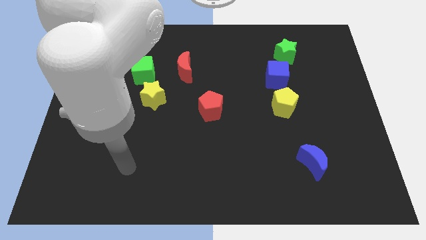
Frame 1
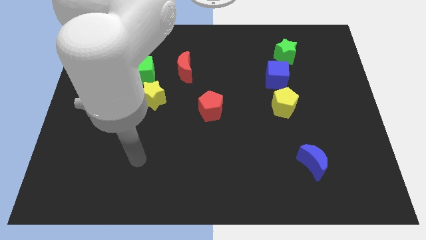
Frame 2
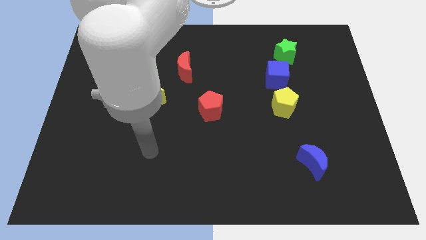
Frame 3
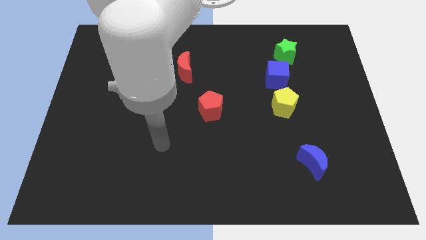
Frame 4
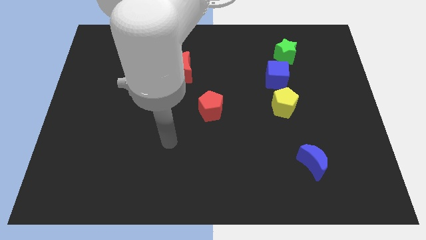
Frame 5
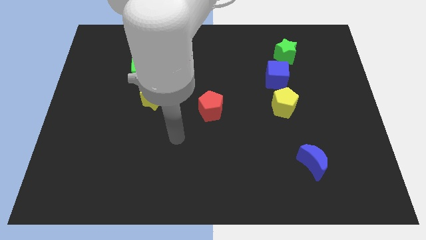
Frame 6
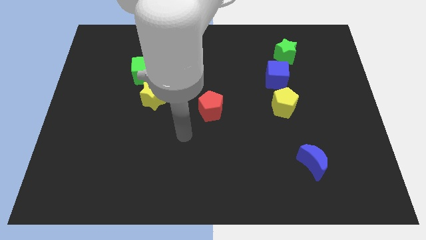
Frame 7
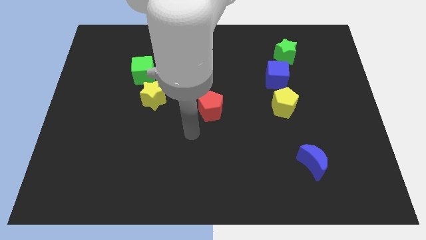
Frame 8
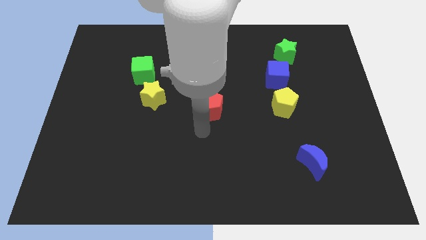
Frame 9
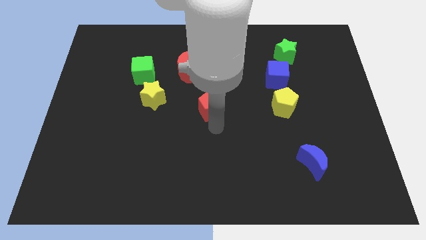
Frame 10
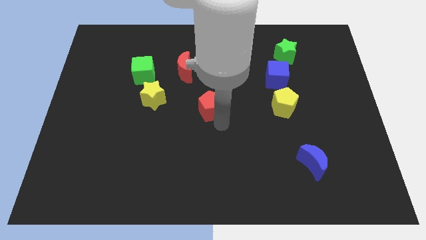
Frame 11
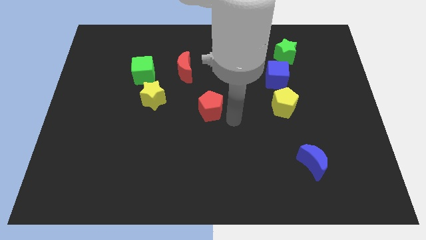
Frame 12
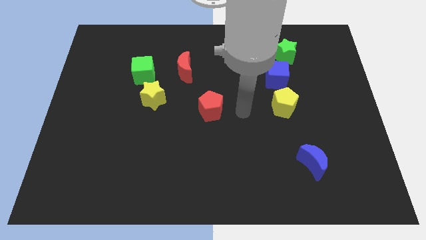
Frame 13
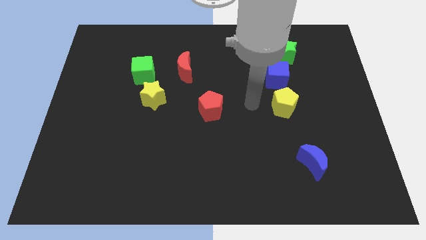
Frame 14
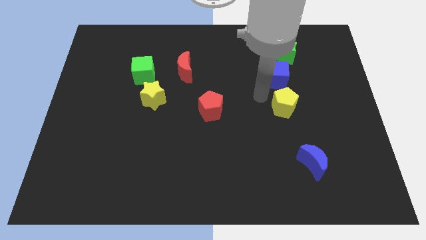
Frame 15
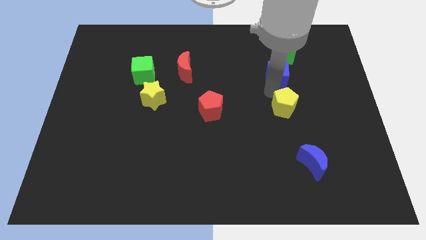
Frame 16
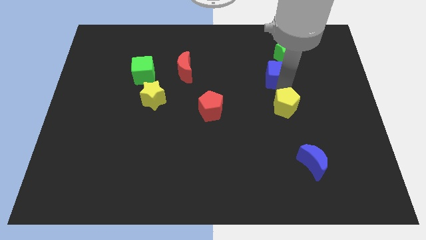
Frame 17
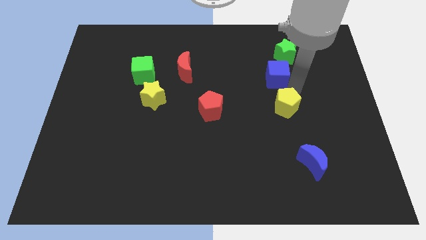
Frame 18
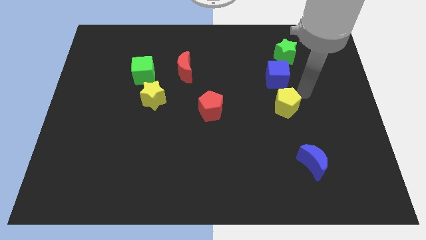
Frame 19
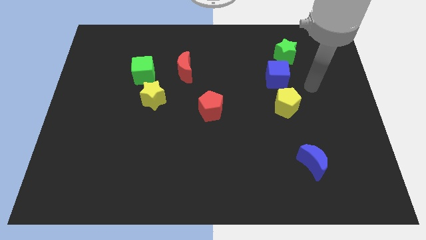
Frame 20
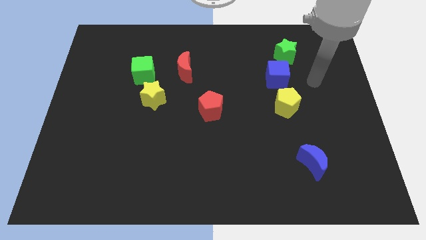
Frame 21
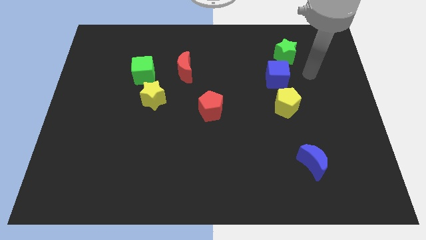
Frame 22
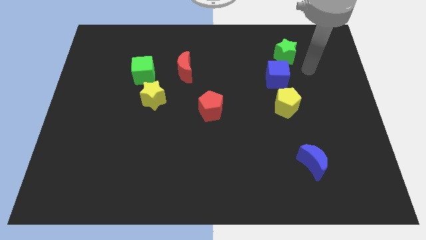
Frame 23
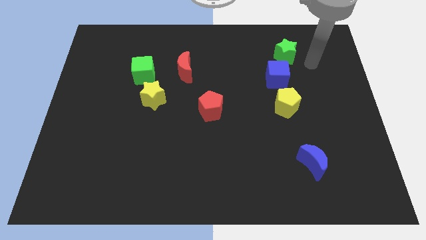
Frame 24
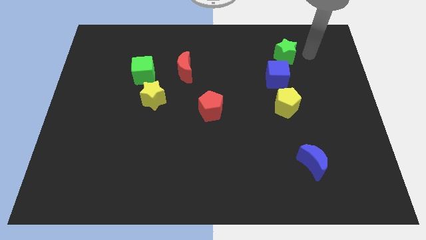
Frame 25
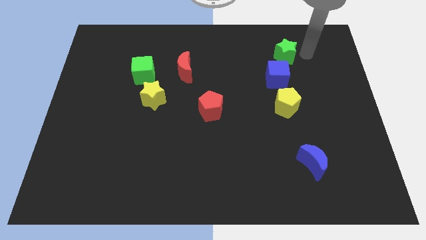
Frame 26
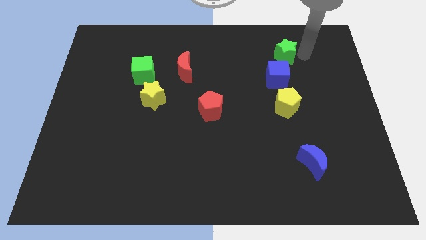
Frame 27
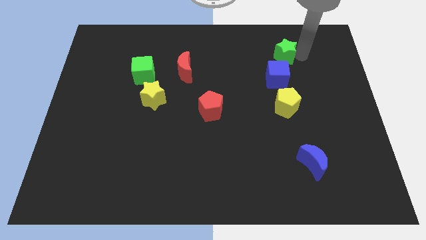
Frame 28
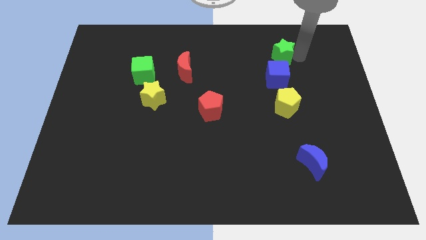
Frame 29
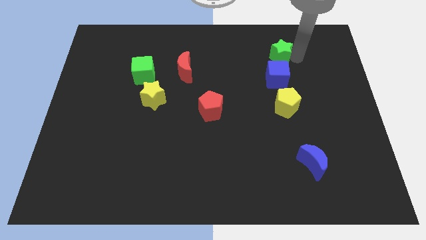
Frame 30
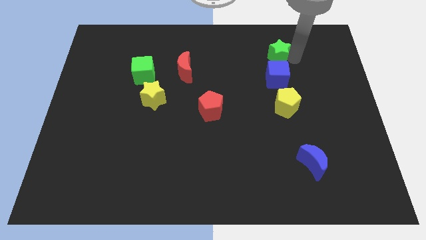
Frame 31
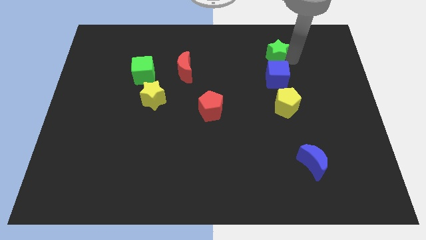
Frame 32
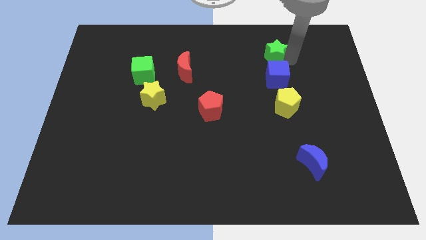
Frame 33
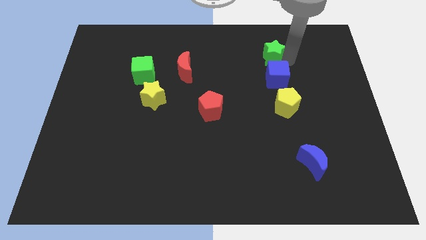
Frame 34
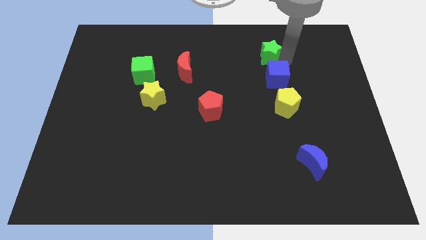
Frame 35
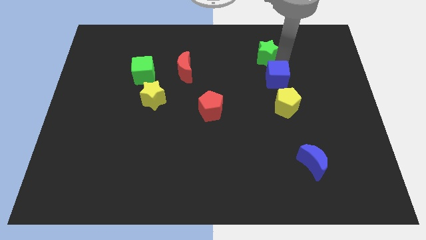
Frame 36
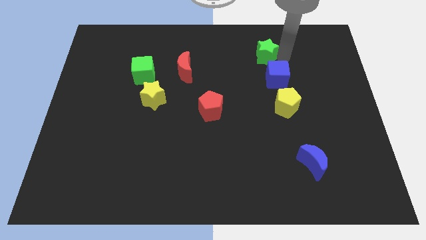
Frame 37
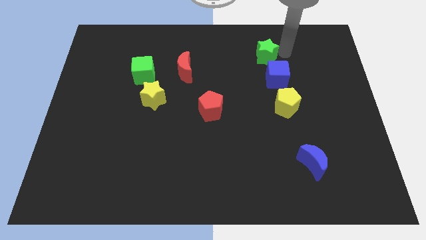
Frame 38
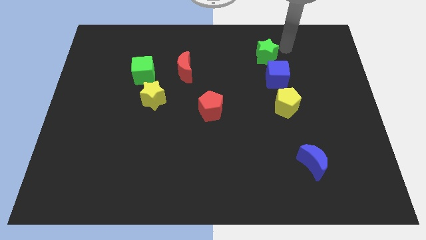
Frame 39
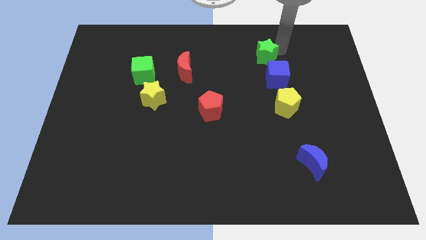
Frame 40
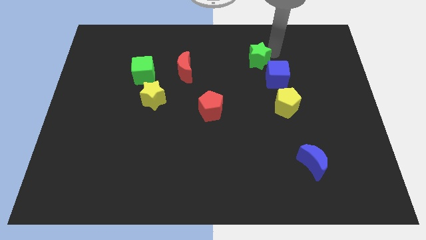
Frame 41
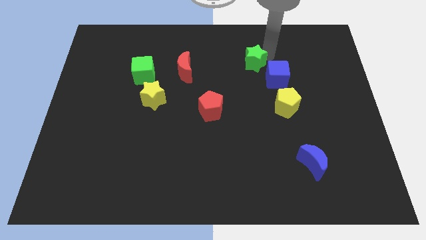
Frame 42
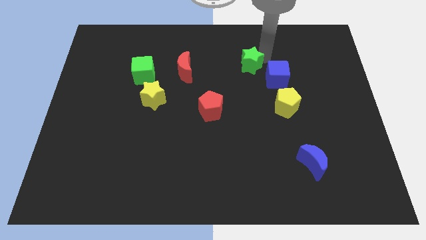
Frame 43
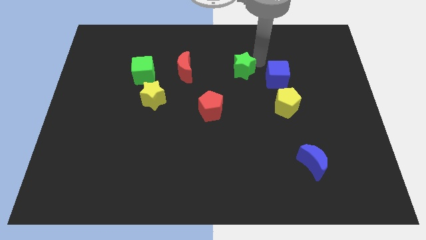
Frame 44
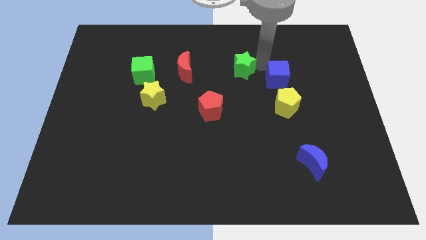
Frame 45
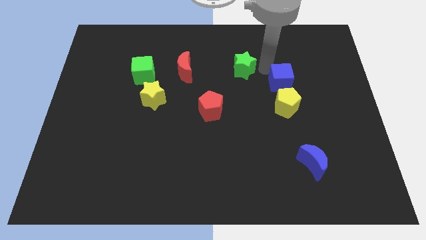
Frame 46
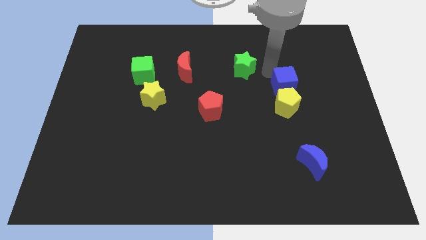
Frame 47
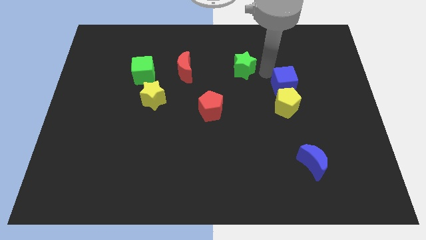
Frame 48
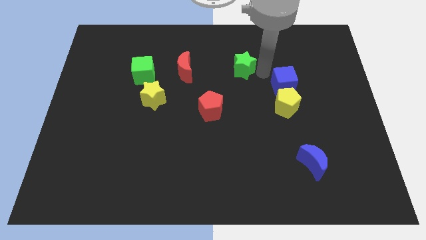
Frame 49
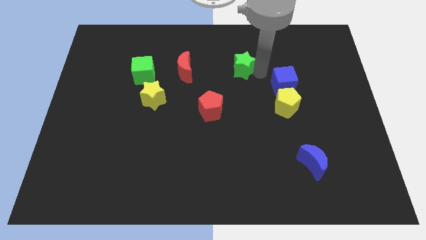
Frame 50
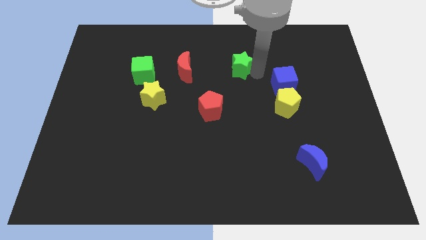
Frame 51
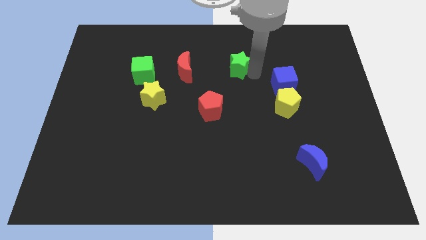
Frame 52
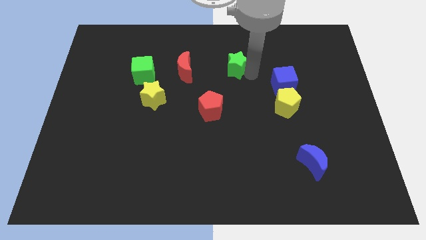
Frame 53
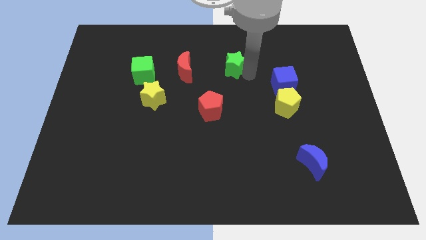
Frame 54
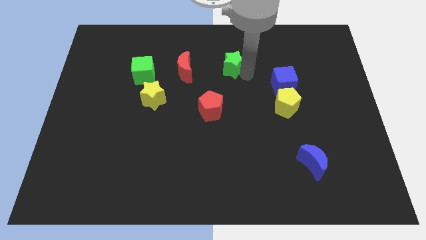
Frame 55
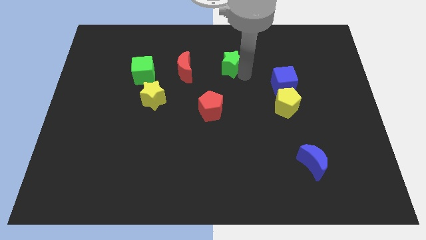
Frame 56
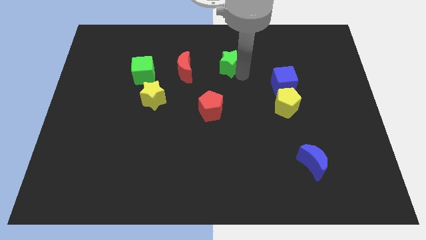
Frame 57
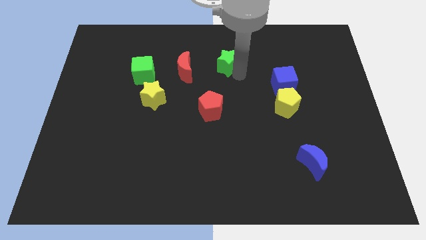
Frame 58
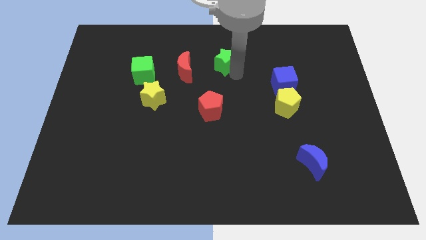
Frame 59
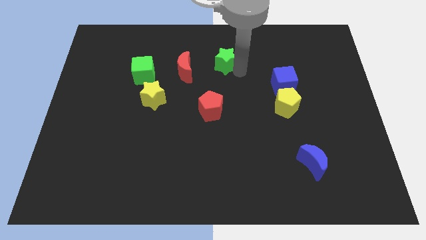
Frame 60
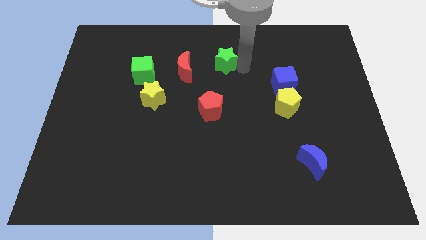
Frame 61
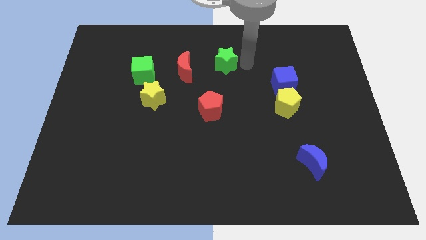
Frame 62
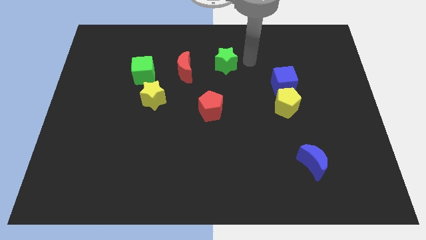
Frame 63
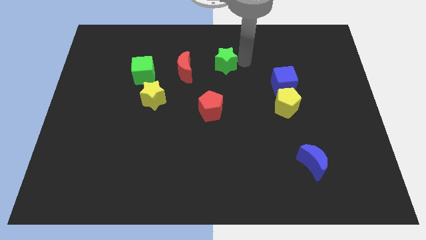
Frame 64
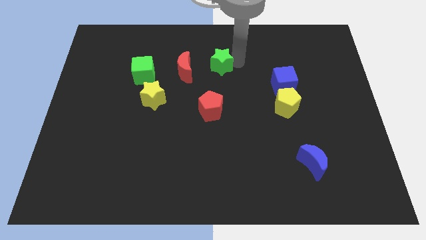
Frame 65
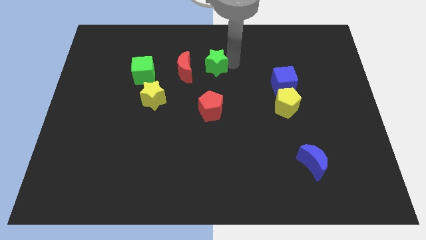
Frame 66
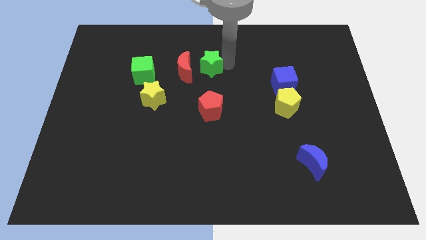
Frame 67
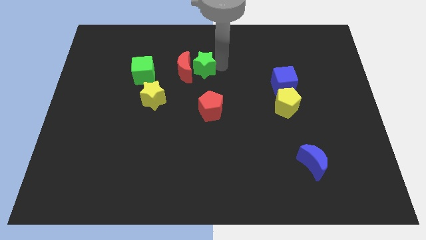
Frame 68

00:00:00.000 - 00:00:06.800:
move the green star next to the red moon

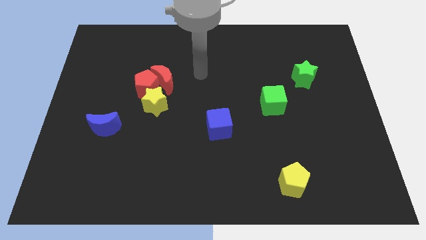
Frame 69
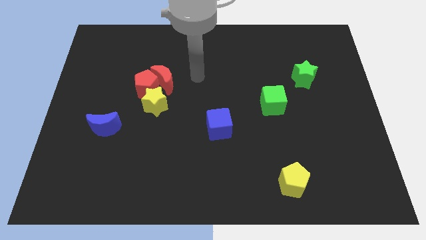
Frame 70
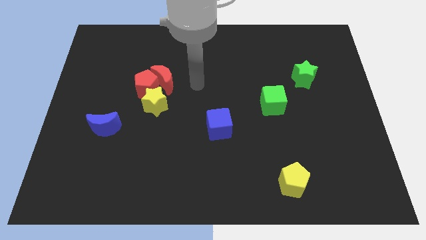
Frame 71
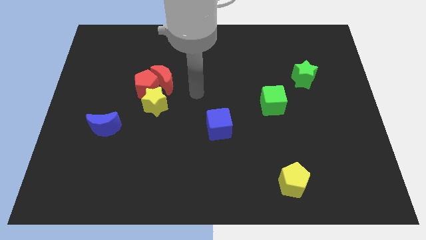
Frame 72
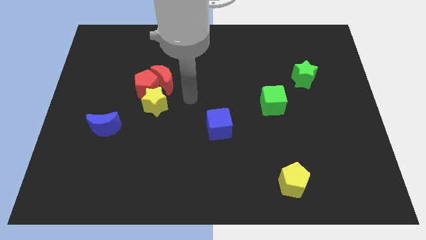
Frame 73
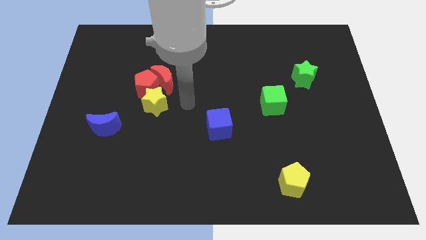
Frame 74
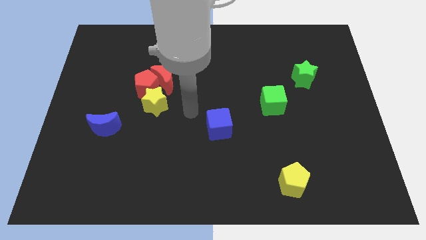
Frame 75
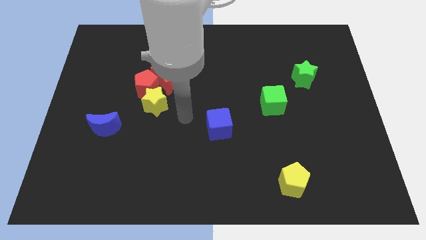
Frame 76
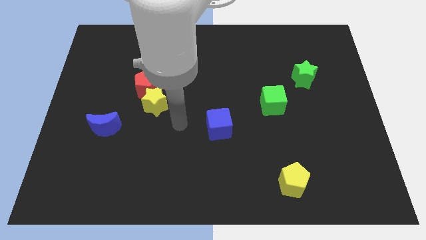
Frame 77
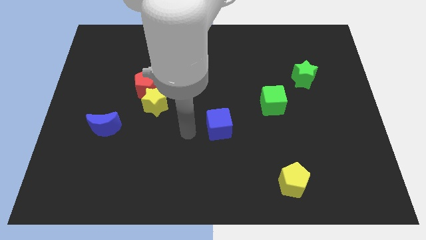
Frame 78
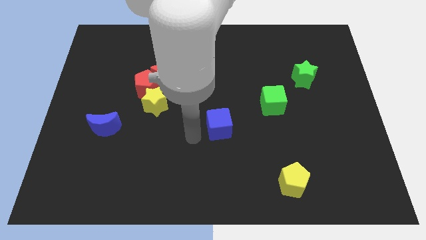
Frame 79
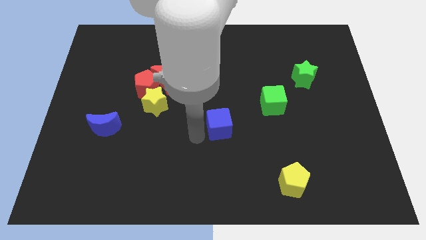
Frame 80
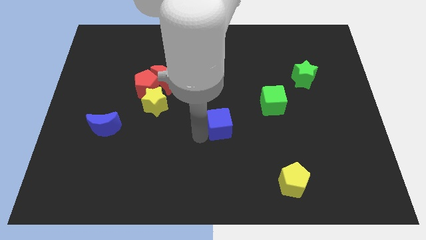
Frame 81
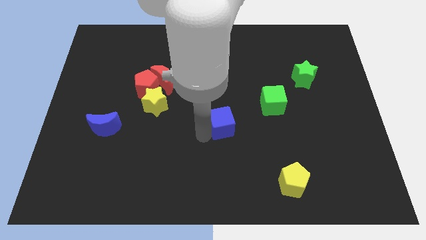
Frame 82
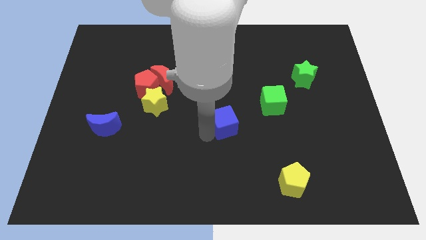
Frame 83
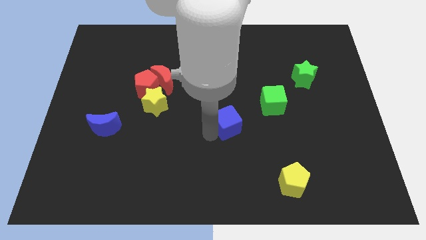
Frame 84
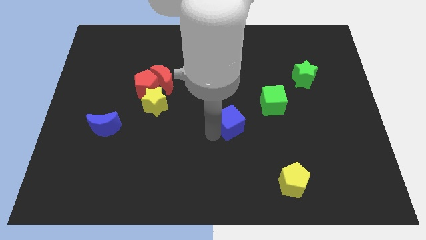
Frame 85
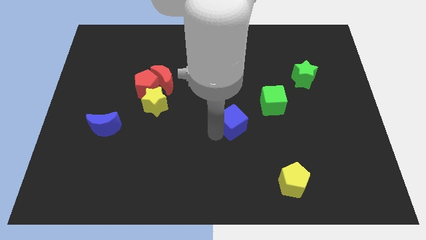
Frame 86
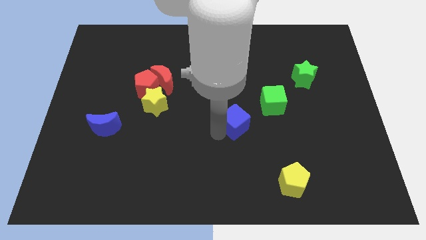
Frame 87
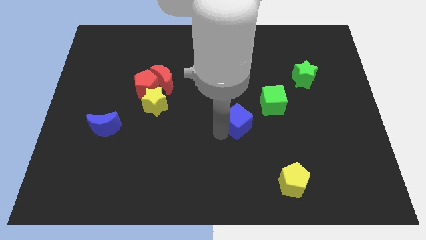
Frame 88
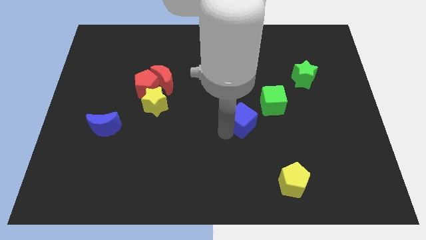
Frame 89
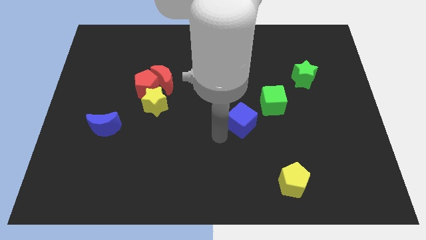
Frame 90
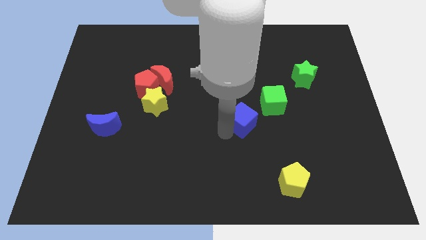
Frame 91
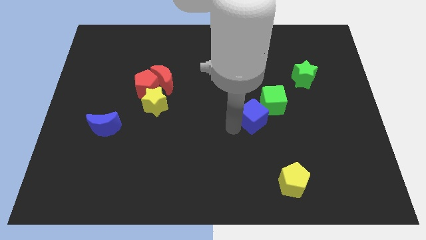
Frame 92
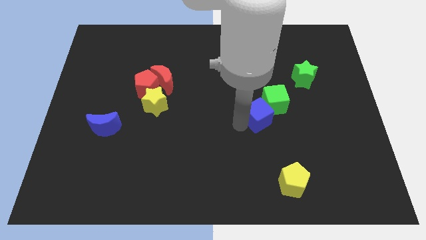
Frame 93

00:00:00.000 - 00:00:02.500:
move the blue cube close to the green cube
